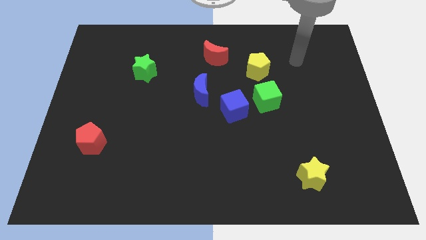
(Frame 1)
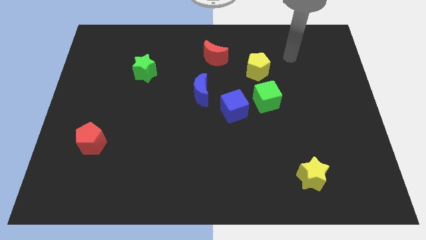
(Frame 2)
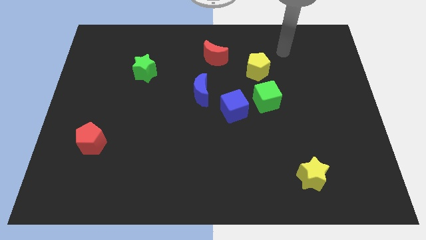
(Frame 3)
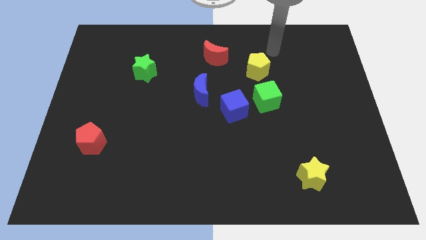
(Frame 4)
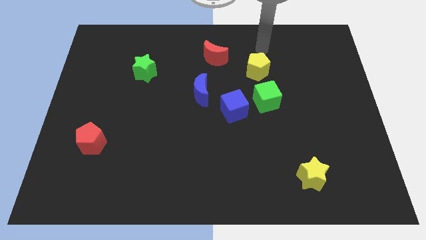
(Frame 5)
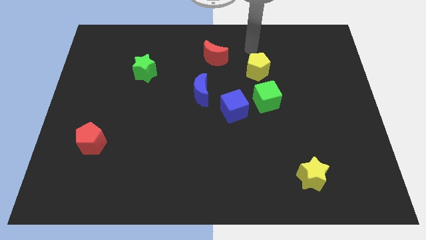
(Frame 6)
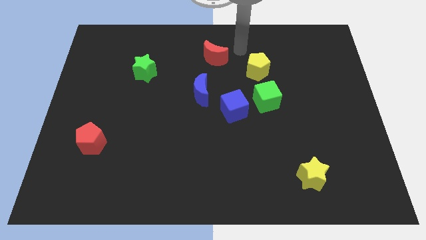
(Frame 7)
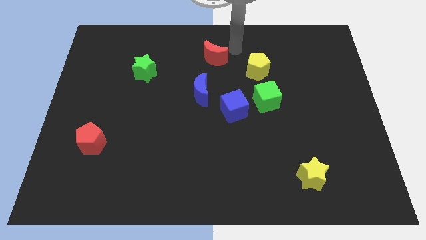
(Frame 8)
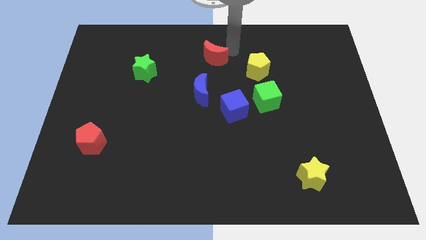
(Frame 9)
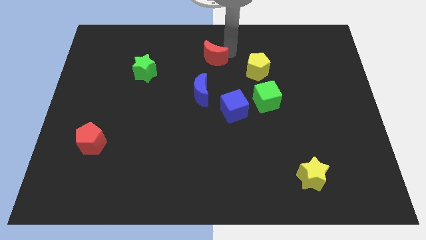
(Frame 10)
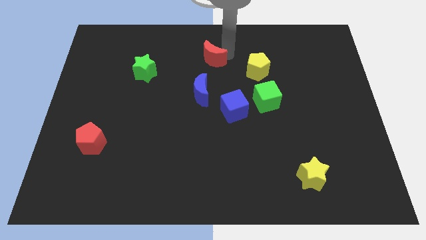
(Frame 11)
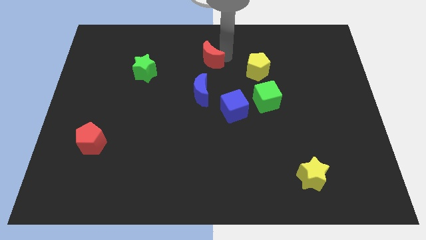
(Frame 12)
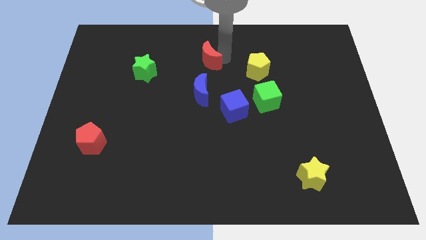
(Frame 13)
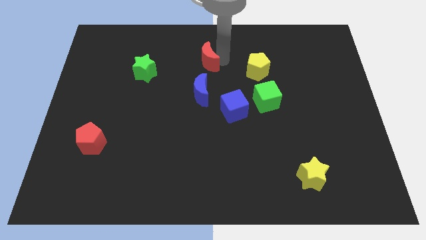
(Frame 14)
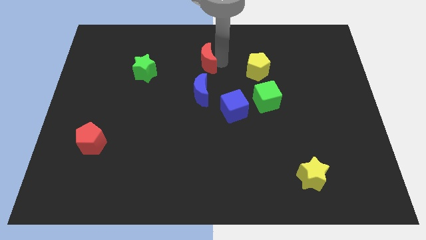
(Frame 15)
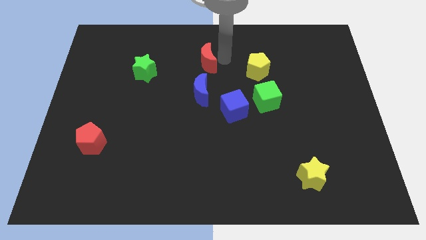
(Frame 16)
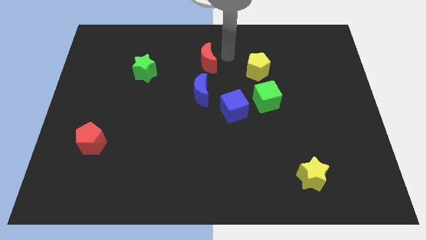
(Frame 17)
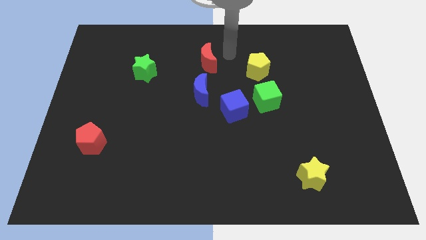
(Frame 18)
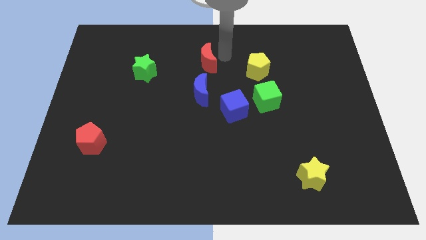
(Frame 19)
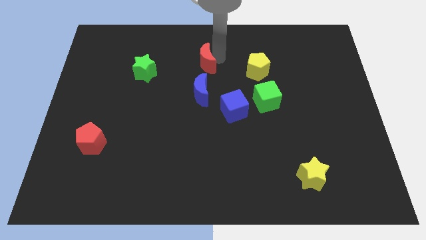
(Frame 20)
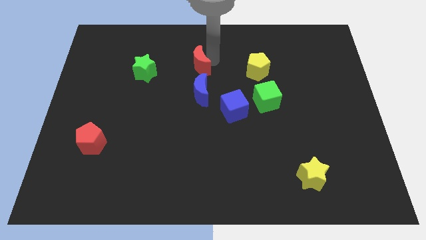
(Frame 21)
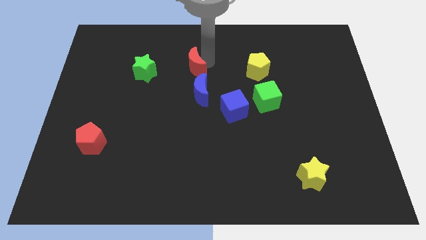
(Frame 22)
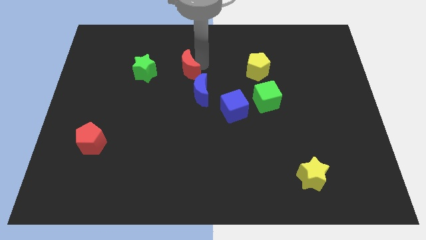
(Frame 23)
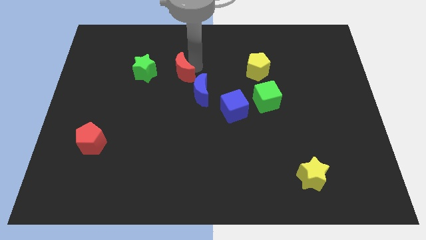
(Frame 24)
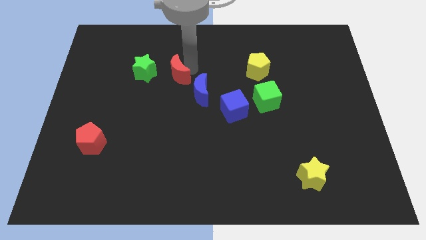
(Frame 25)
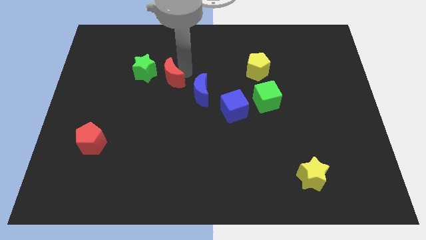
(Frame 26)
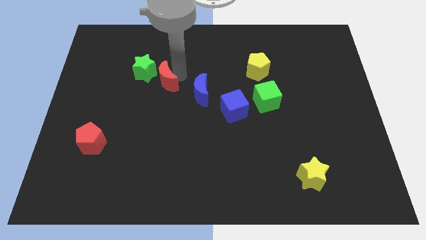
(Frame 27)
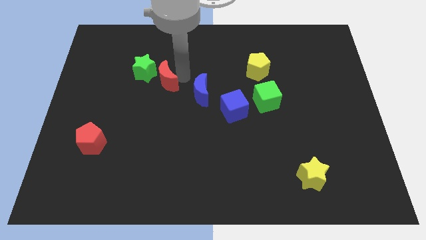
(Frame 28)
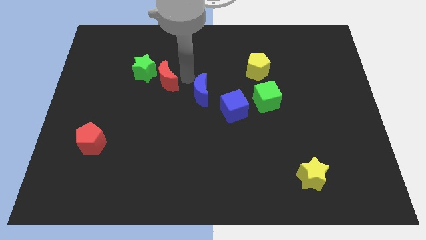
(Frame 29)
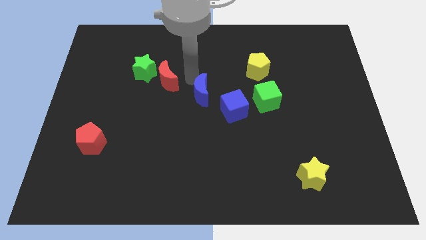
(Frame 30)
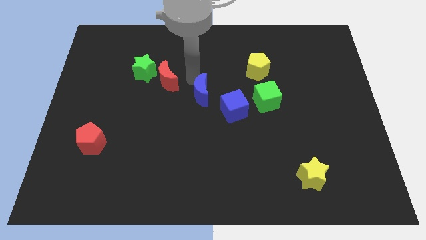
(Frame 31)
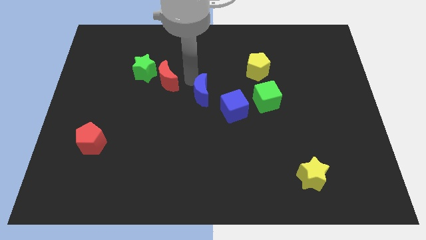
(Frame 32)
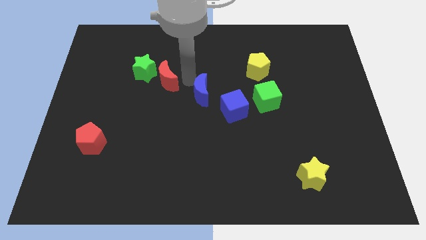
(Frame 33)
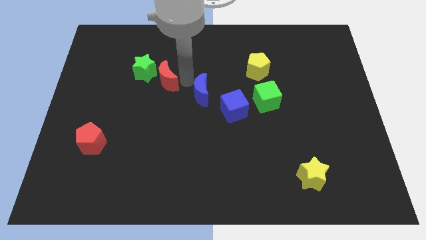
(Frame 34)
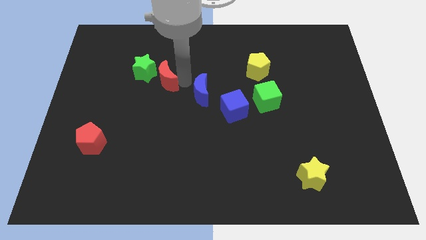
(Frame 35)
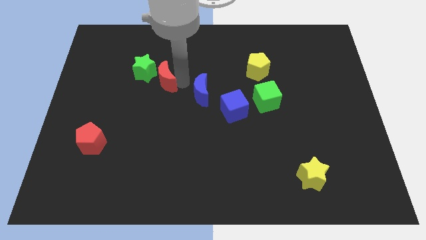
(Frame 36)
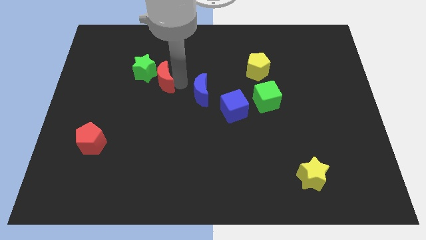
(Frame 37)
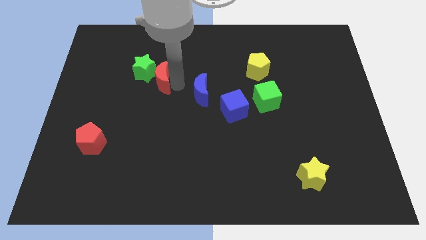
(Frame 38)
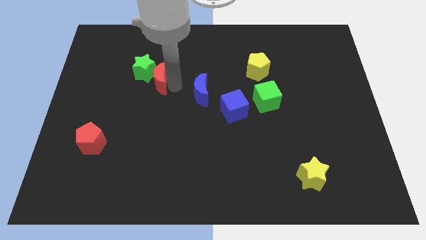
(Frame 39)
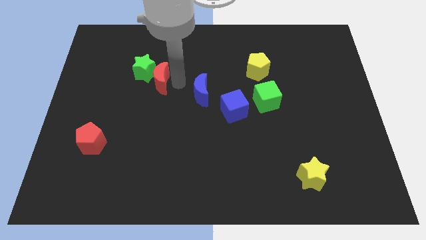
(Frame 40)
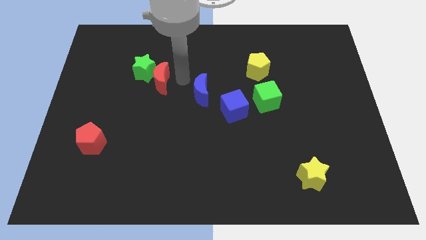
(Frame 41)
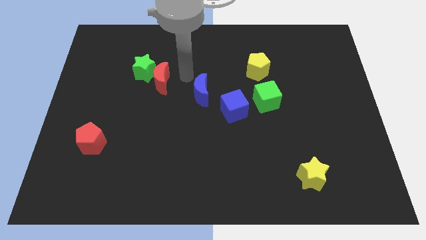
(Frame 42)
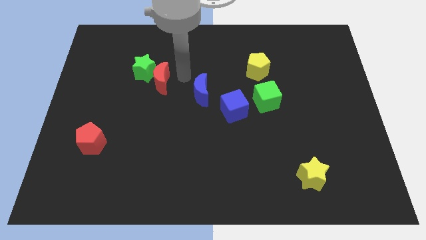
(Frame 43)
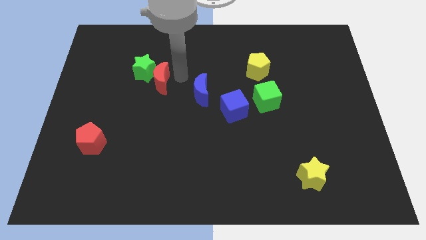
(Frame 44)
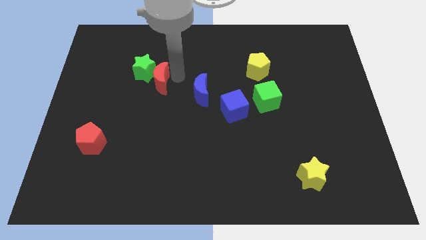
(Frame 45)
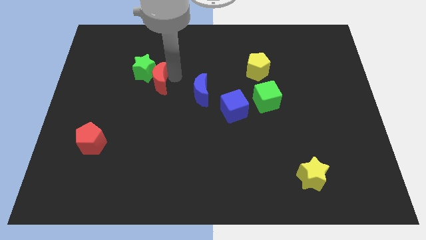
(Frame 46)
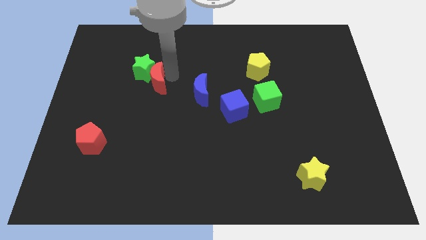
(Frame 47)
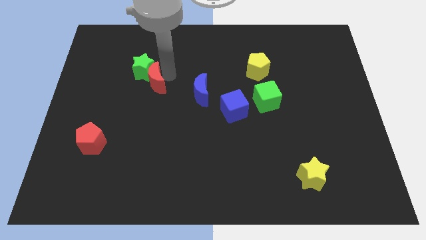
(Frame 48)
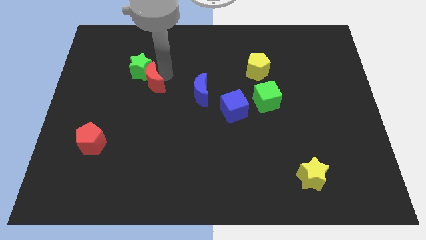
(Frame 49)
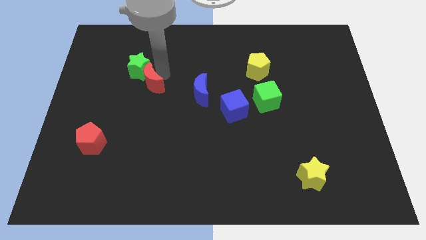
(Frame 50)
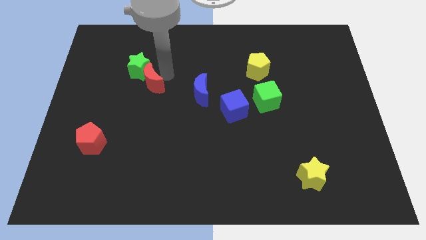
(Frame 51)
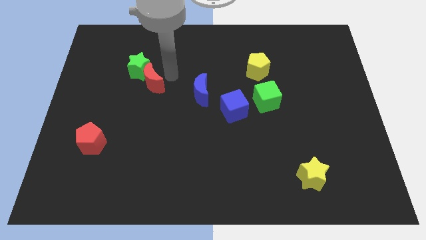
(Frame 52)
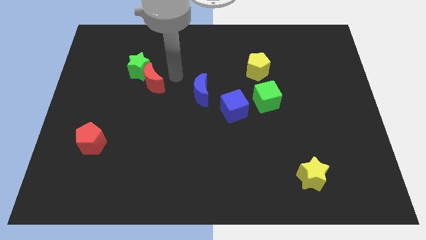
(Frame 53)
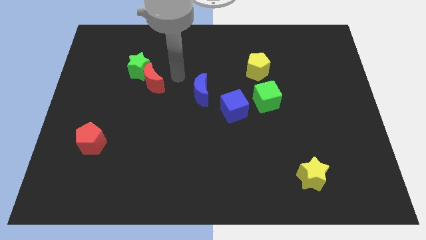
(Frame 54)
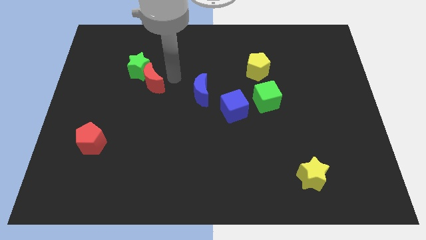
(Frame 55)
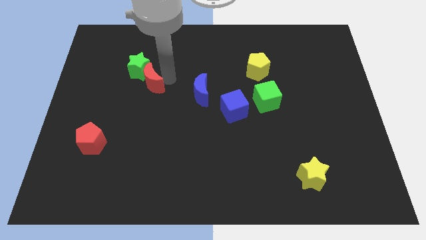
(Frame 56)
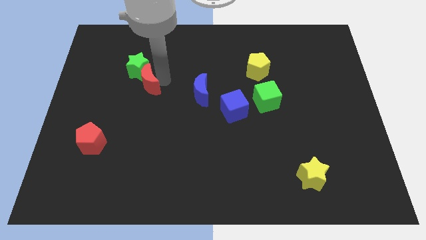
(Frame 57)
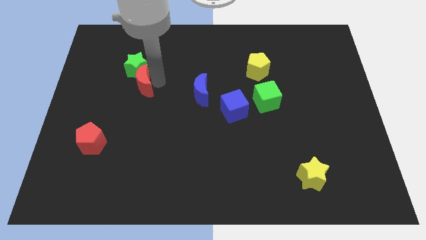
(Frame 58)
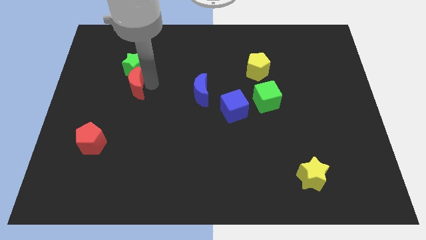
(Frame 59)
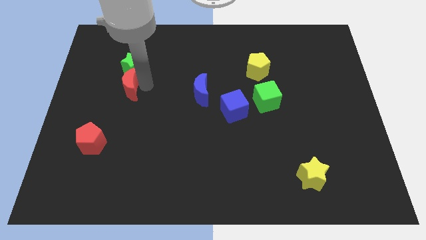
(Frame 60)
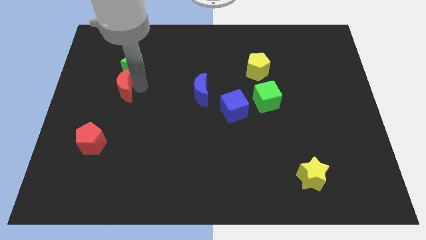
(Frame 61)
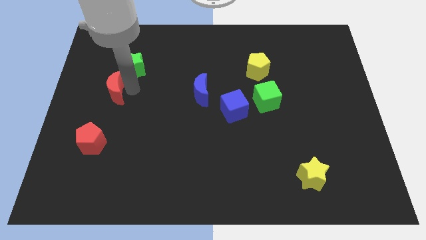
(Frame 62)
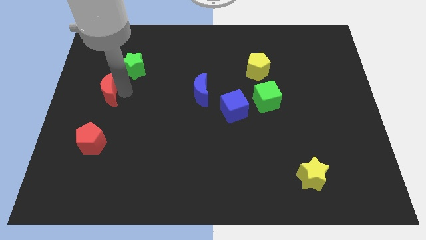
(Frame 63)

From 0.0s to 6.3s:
slide the red moon to the left side of the board
